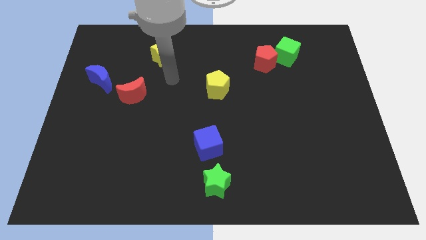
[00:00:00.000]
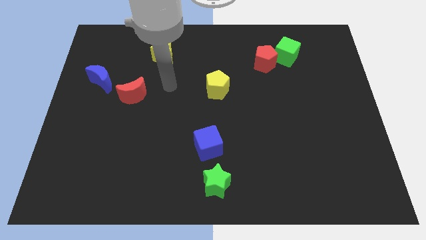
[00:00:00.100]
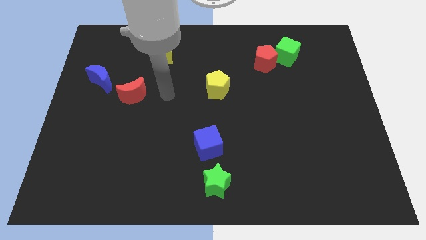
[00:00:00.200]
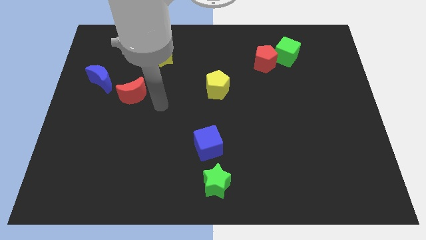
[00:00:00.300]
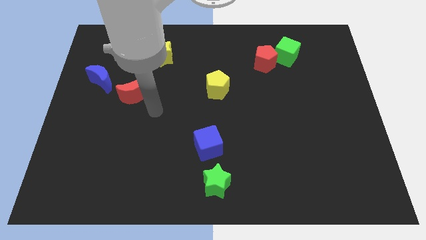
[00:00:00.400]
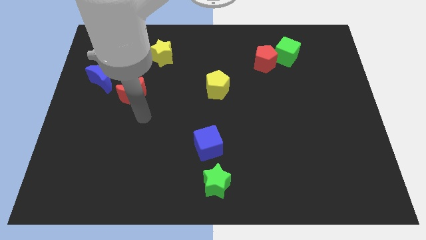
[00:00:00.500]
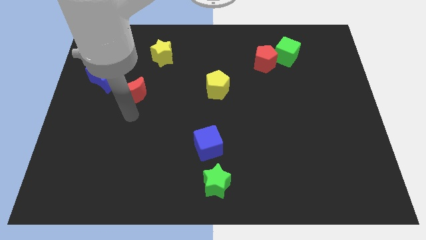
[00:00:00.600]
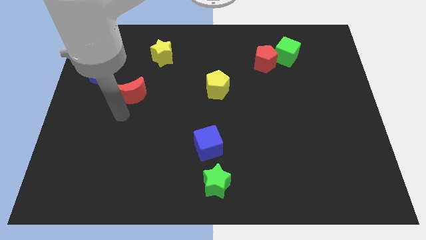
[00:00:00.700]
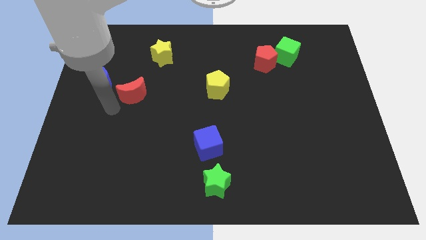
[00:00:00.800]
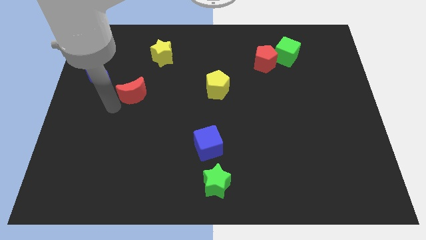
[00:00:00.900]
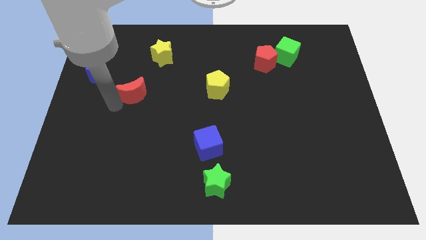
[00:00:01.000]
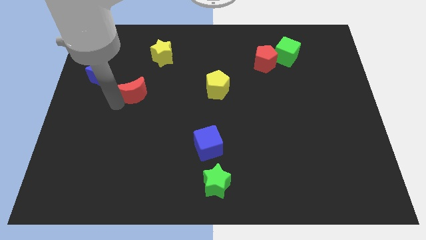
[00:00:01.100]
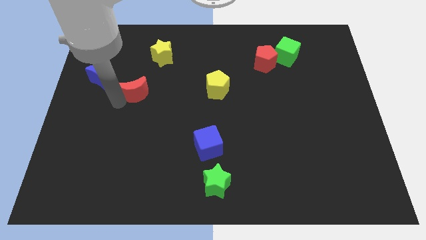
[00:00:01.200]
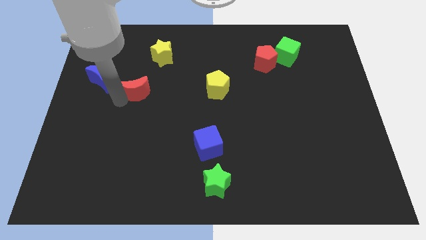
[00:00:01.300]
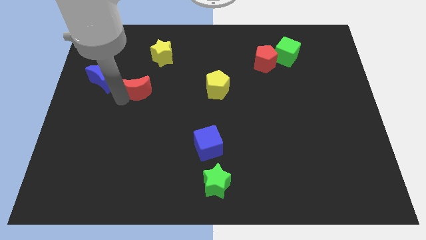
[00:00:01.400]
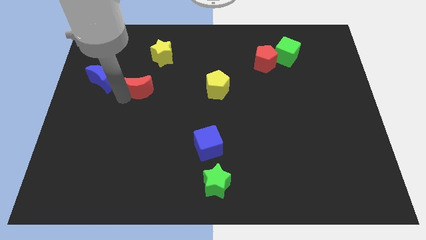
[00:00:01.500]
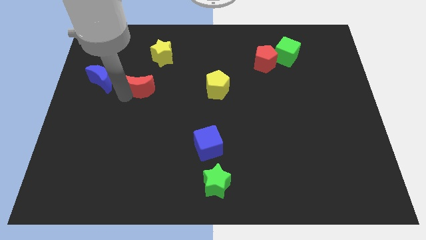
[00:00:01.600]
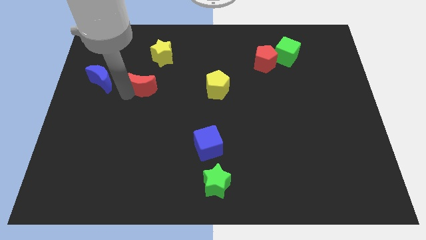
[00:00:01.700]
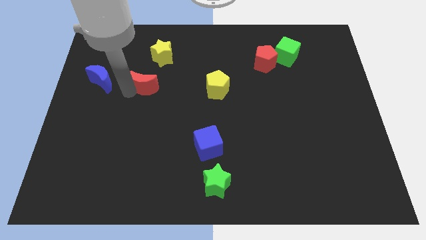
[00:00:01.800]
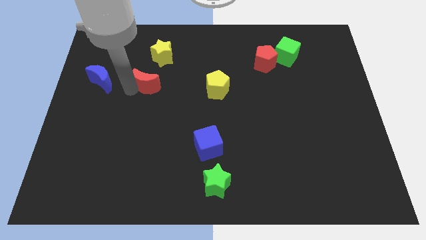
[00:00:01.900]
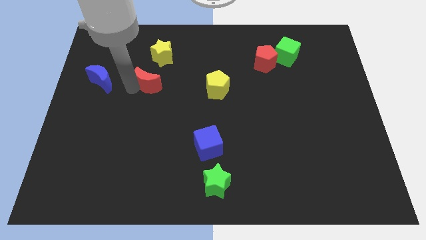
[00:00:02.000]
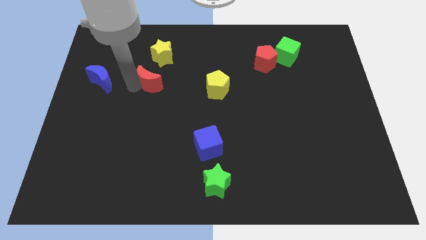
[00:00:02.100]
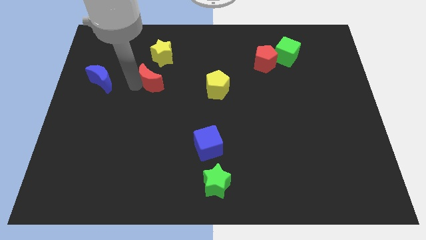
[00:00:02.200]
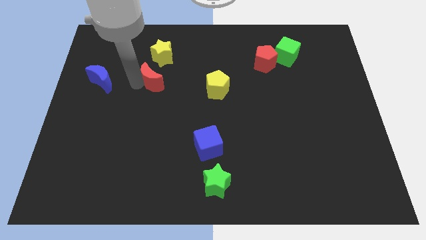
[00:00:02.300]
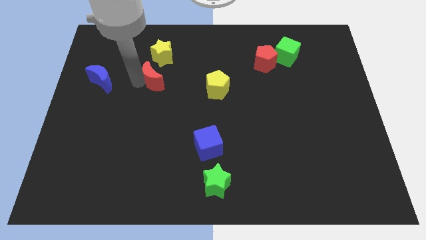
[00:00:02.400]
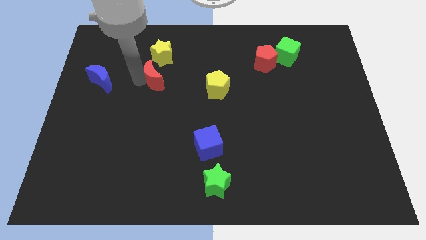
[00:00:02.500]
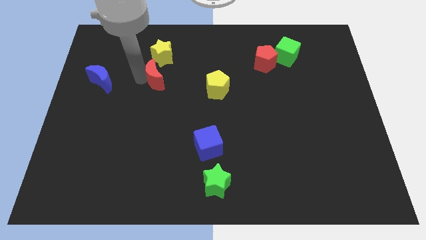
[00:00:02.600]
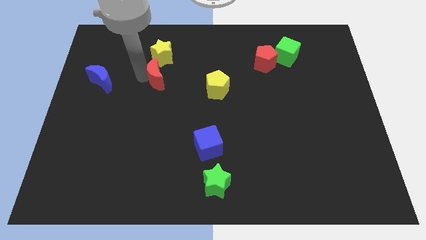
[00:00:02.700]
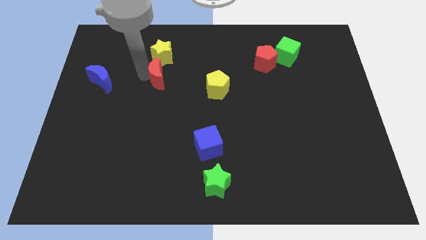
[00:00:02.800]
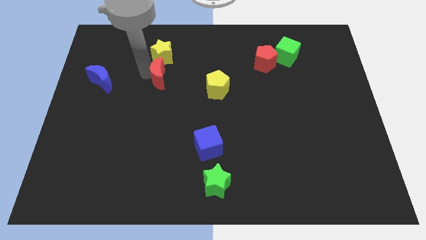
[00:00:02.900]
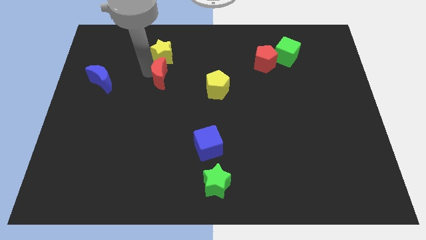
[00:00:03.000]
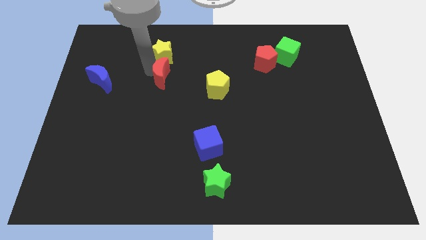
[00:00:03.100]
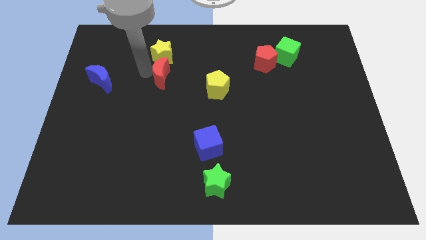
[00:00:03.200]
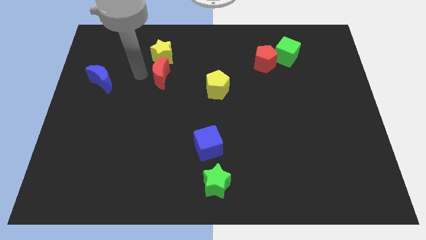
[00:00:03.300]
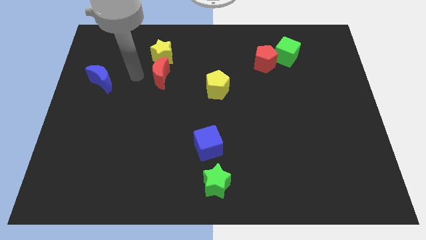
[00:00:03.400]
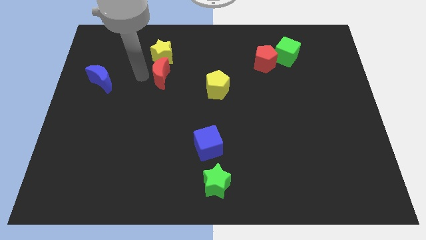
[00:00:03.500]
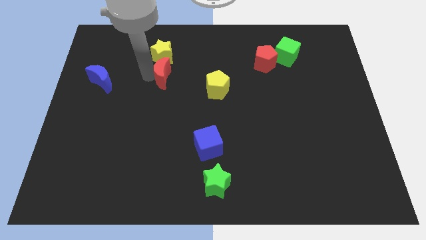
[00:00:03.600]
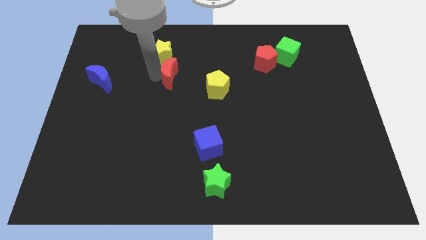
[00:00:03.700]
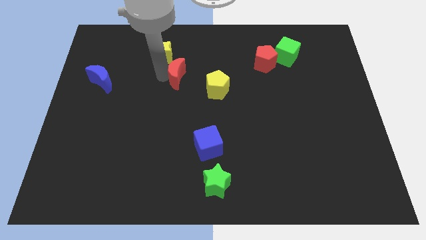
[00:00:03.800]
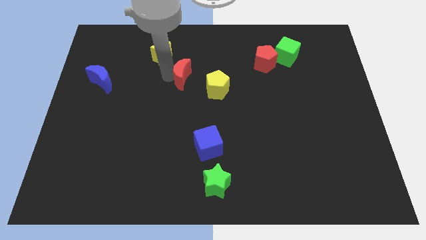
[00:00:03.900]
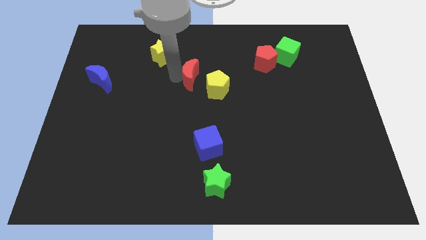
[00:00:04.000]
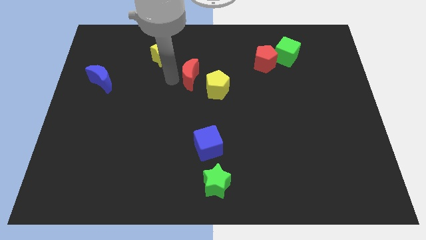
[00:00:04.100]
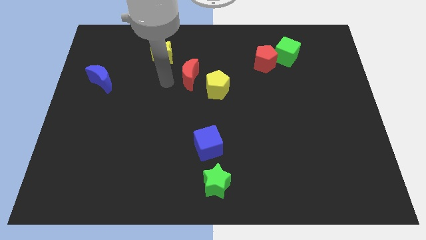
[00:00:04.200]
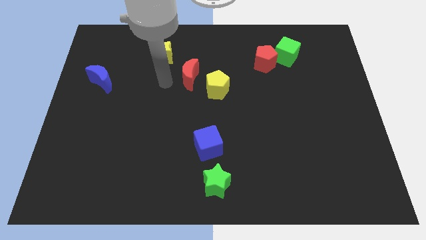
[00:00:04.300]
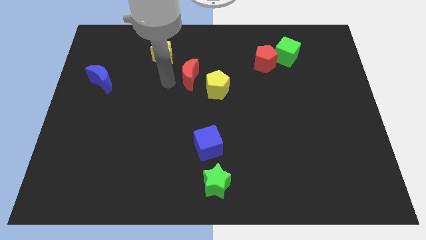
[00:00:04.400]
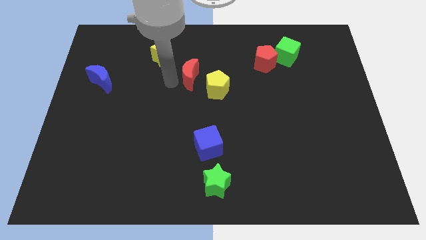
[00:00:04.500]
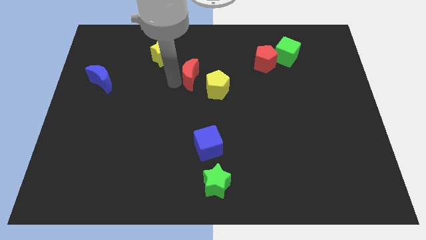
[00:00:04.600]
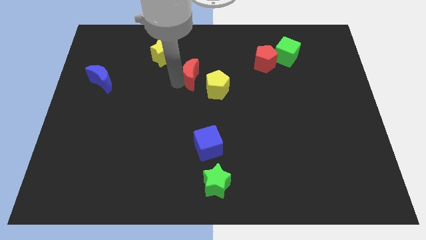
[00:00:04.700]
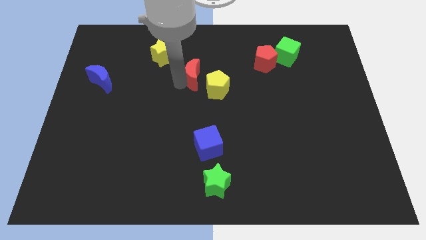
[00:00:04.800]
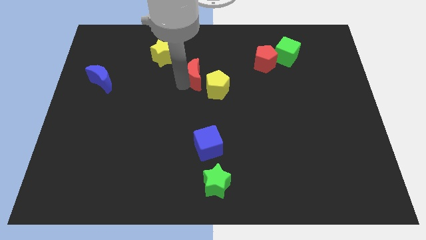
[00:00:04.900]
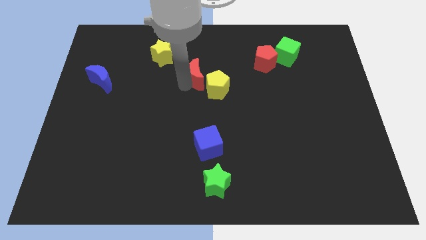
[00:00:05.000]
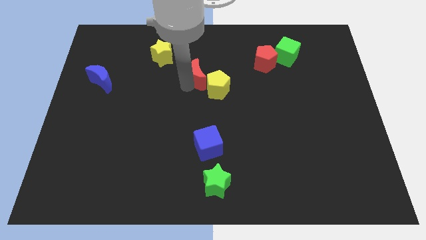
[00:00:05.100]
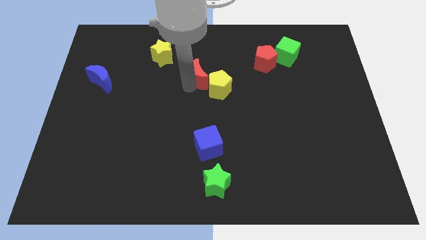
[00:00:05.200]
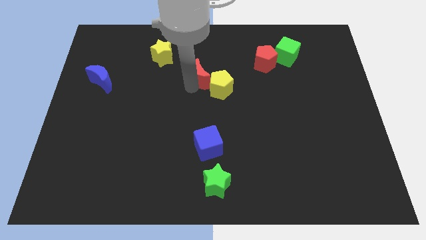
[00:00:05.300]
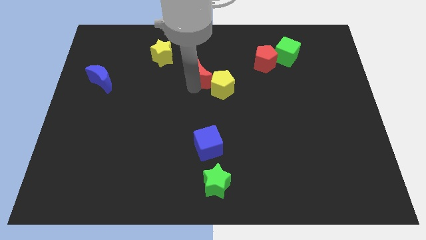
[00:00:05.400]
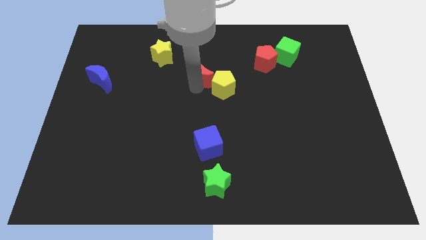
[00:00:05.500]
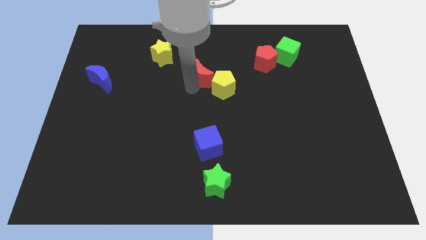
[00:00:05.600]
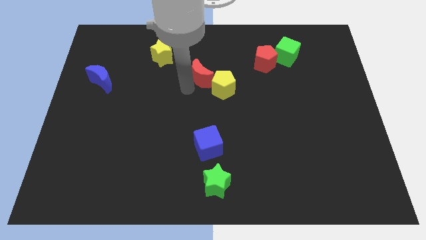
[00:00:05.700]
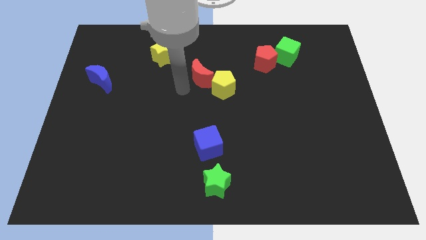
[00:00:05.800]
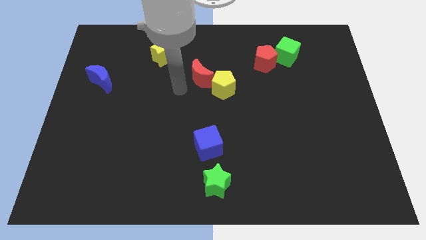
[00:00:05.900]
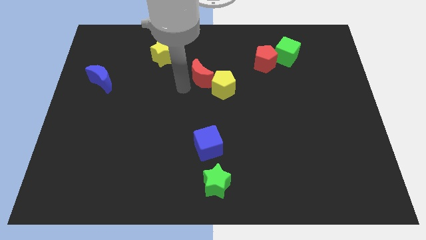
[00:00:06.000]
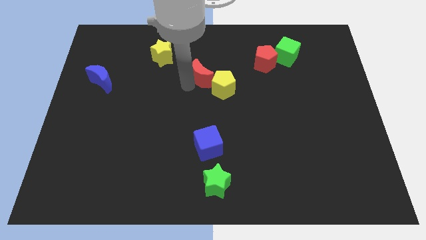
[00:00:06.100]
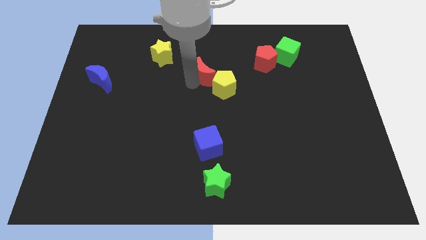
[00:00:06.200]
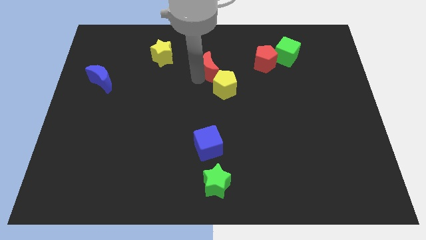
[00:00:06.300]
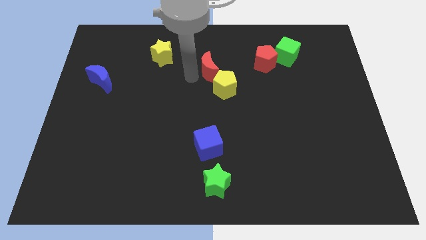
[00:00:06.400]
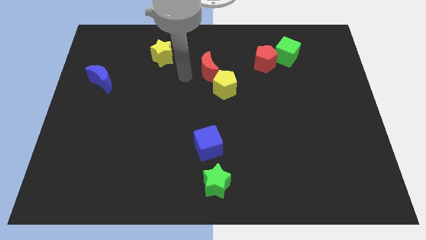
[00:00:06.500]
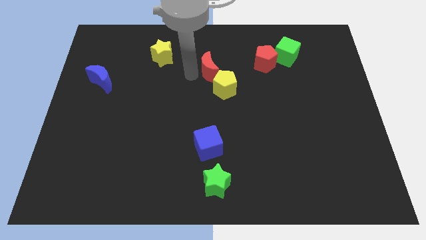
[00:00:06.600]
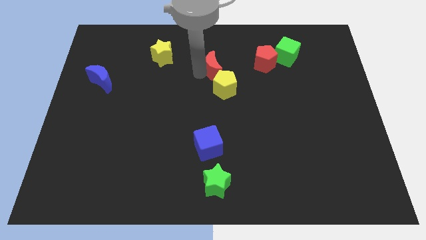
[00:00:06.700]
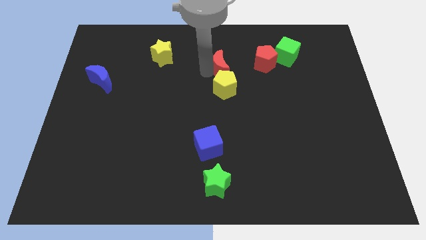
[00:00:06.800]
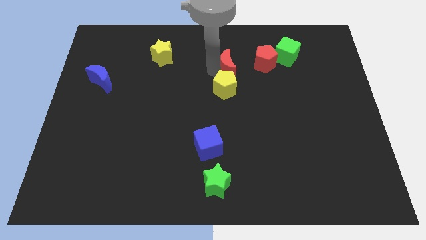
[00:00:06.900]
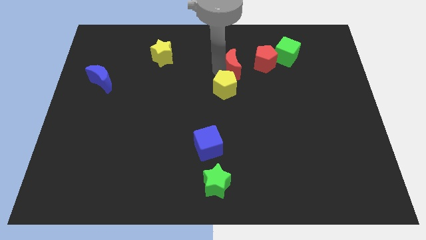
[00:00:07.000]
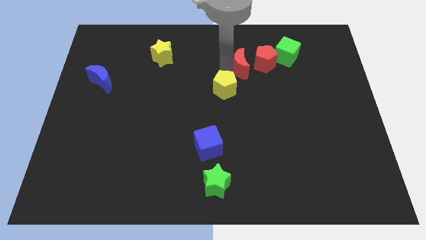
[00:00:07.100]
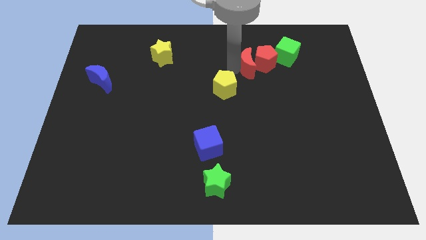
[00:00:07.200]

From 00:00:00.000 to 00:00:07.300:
push the red moon to the red pentagon

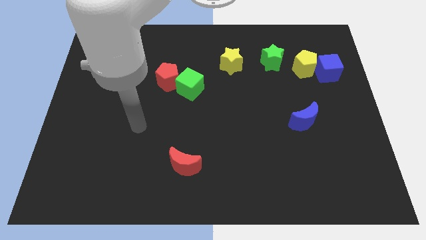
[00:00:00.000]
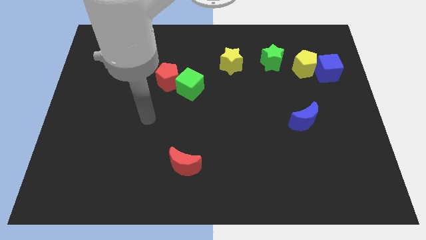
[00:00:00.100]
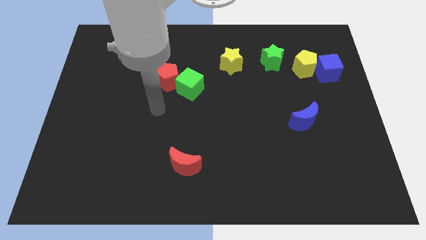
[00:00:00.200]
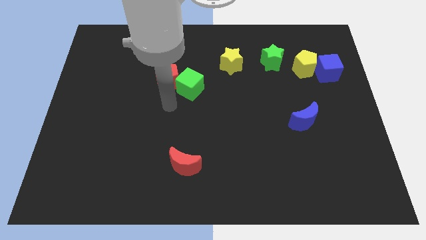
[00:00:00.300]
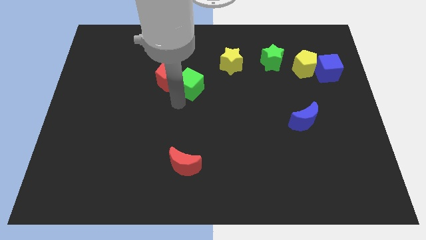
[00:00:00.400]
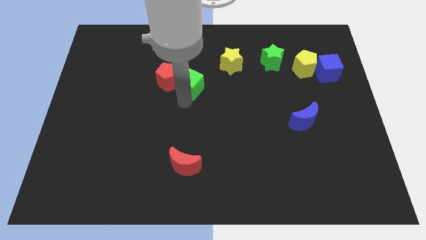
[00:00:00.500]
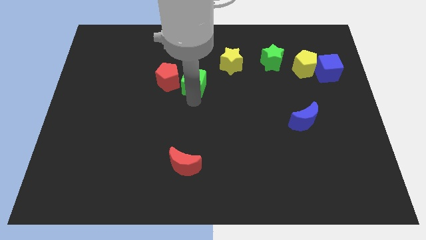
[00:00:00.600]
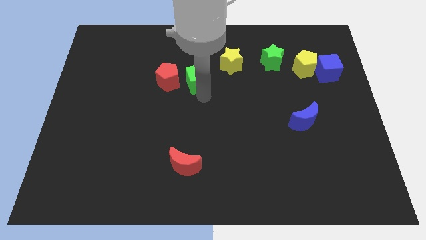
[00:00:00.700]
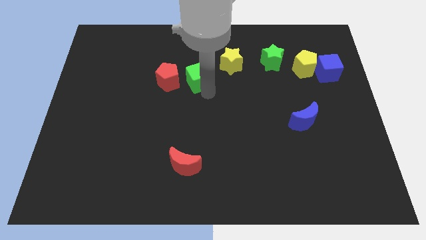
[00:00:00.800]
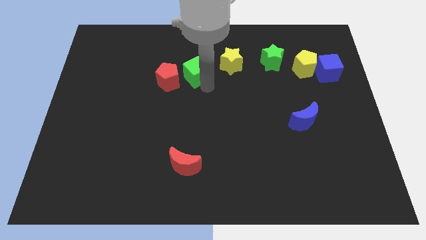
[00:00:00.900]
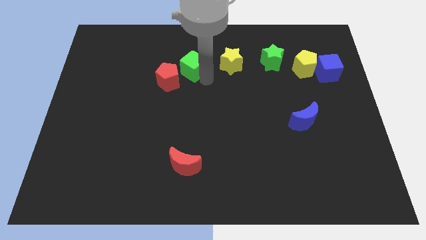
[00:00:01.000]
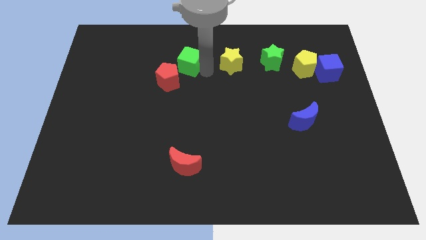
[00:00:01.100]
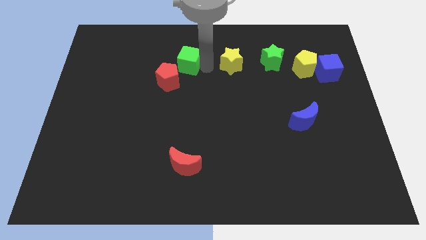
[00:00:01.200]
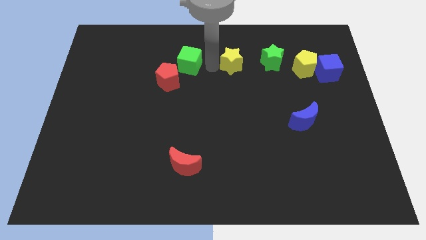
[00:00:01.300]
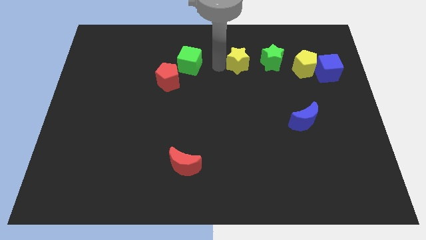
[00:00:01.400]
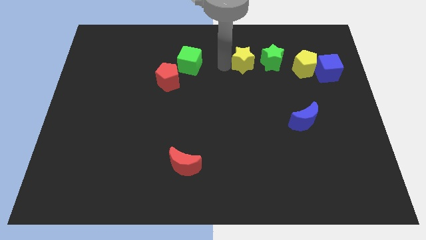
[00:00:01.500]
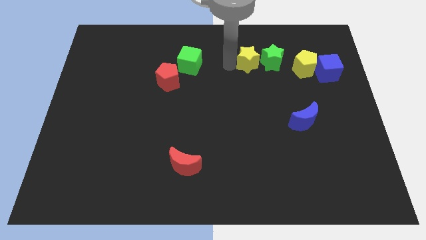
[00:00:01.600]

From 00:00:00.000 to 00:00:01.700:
slide the yellow star towards the green star
